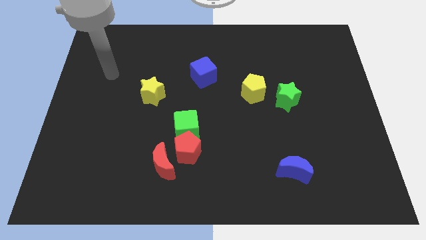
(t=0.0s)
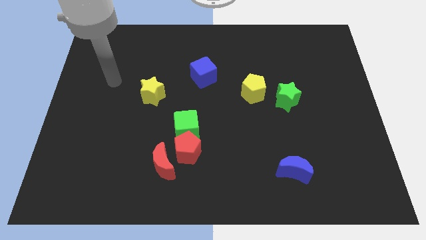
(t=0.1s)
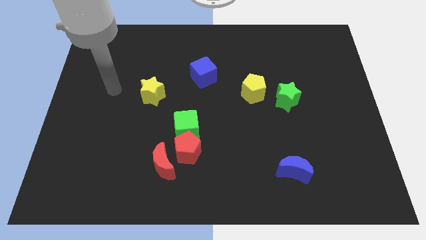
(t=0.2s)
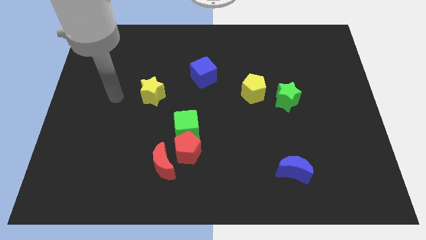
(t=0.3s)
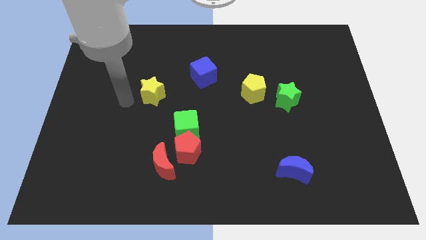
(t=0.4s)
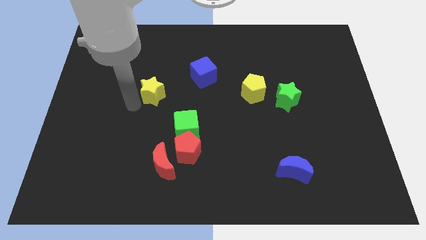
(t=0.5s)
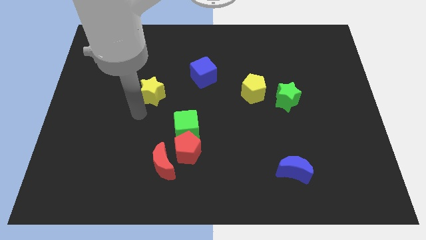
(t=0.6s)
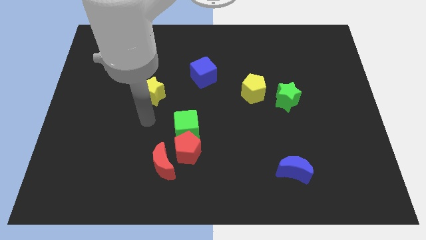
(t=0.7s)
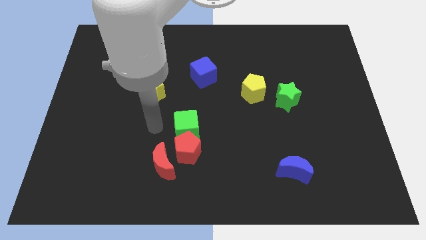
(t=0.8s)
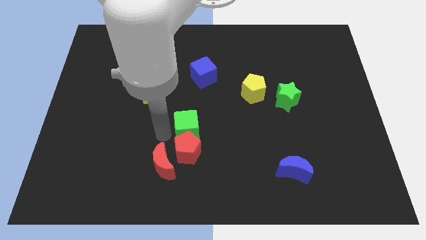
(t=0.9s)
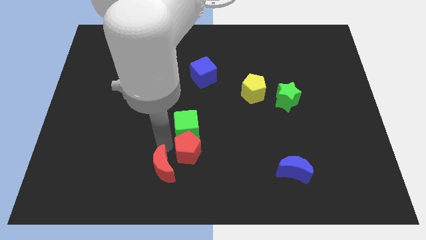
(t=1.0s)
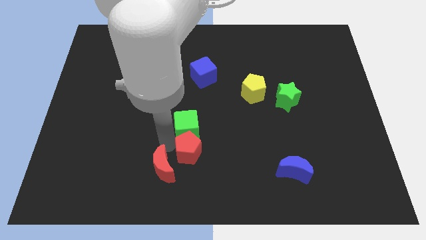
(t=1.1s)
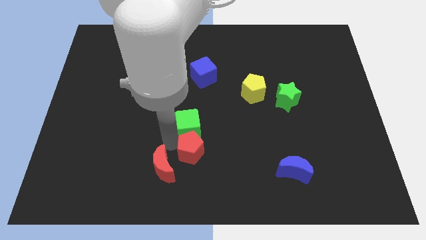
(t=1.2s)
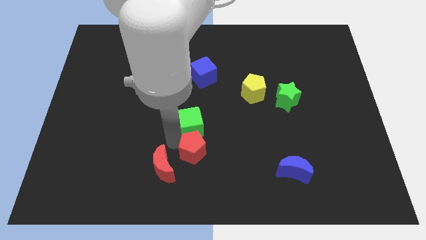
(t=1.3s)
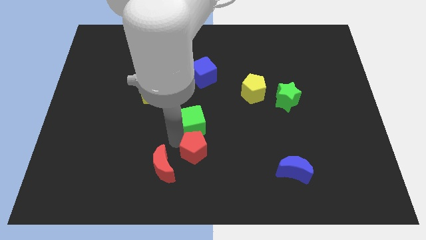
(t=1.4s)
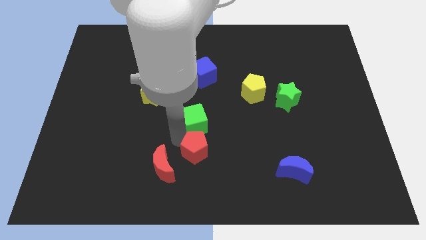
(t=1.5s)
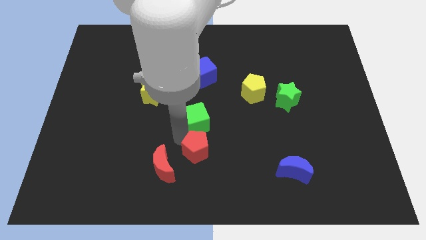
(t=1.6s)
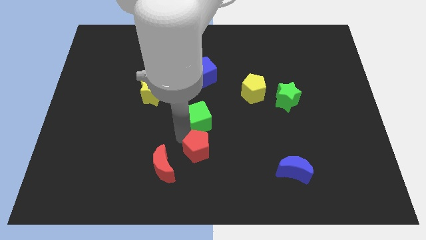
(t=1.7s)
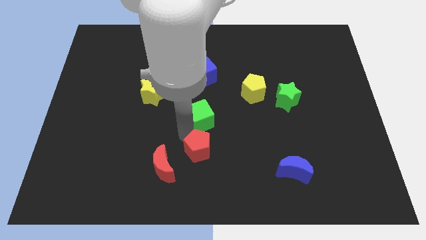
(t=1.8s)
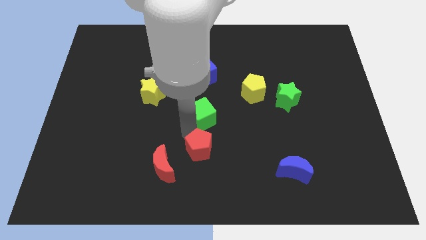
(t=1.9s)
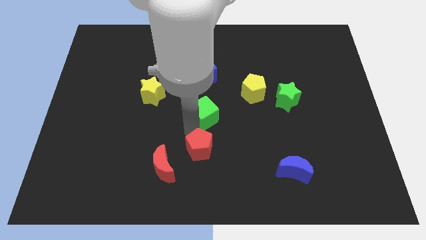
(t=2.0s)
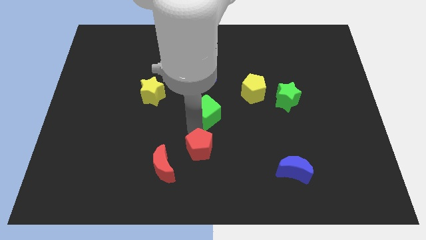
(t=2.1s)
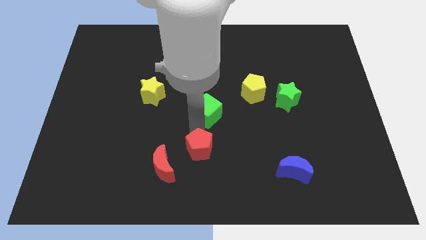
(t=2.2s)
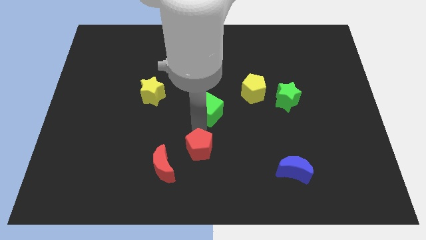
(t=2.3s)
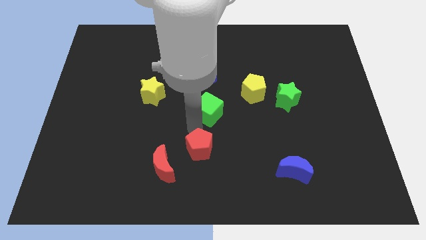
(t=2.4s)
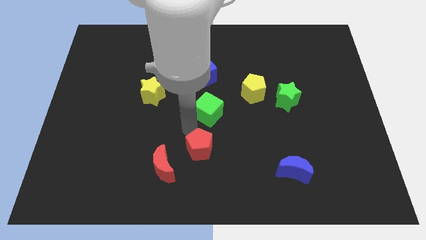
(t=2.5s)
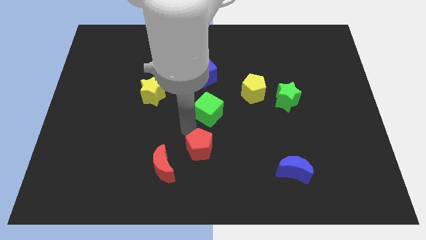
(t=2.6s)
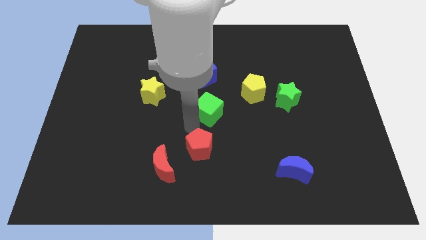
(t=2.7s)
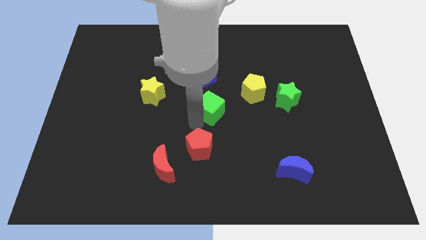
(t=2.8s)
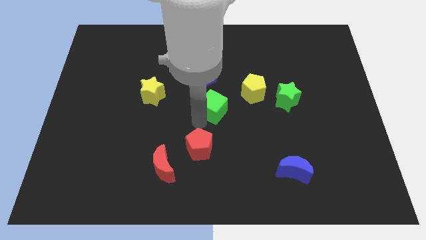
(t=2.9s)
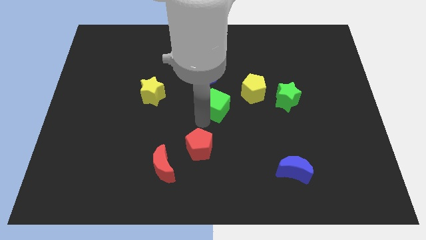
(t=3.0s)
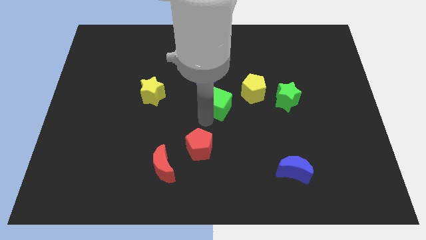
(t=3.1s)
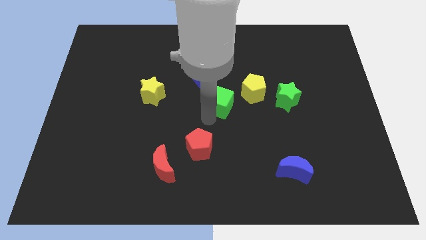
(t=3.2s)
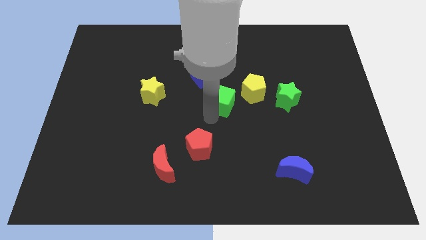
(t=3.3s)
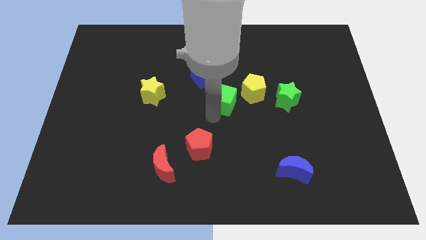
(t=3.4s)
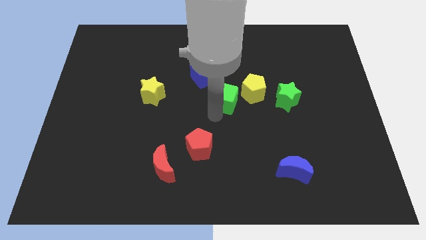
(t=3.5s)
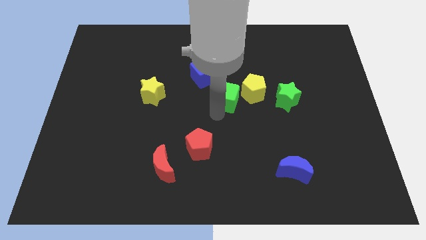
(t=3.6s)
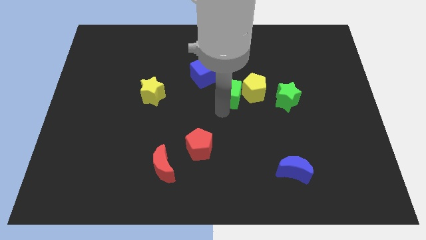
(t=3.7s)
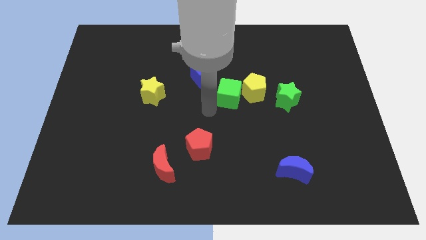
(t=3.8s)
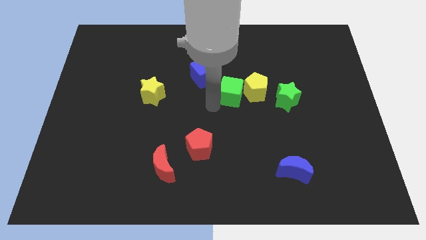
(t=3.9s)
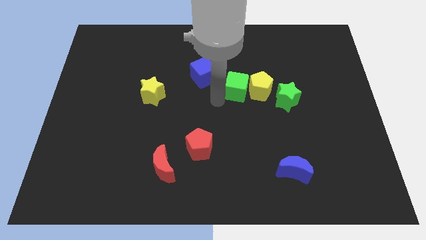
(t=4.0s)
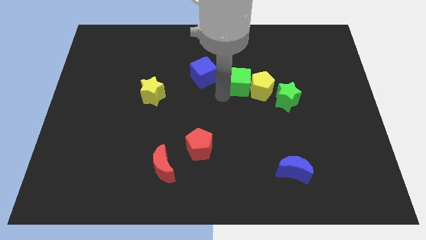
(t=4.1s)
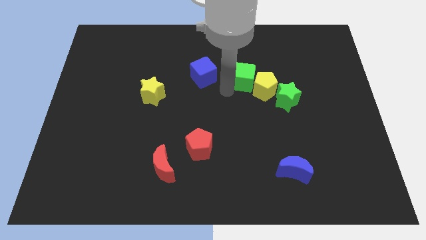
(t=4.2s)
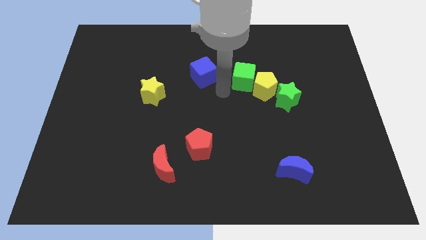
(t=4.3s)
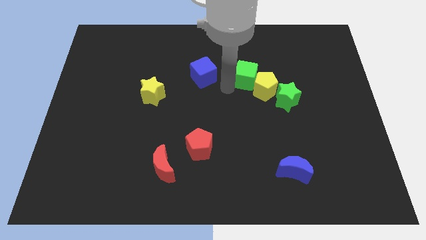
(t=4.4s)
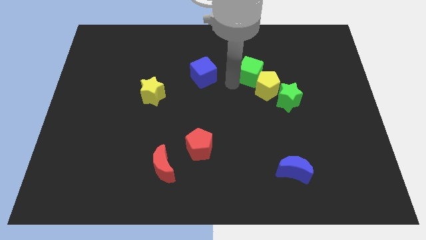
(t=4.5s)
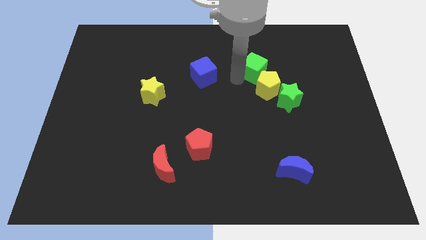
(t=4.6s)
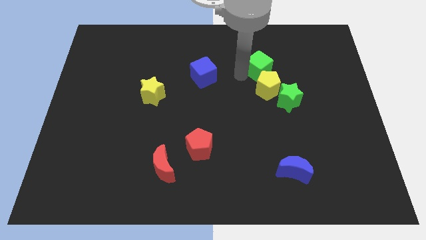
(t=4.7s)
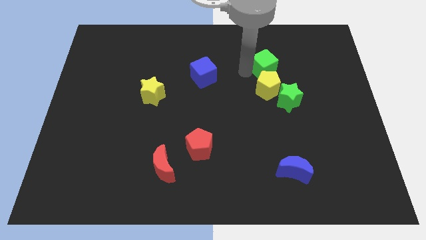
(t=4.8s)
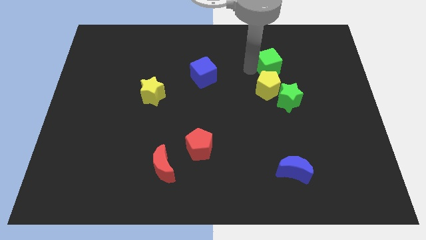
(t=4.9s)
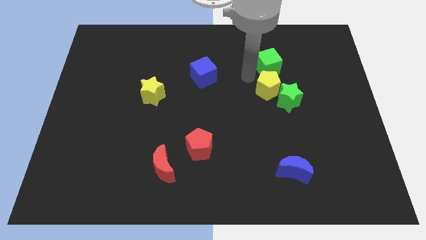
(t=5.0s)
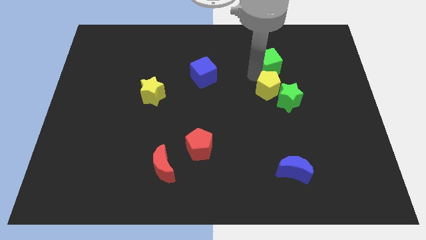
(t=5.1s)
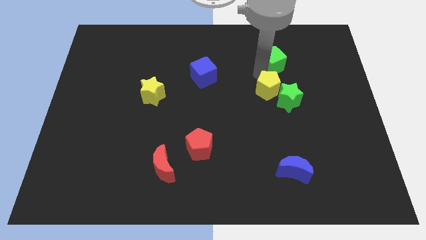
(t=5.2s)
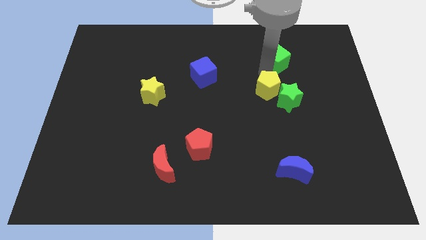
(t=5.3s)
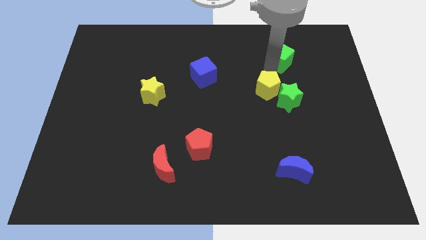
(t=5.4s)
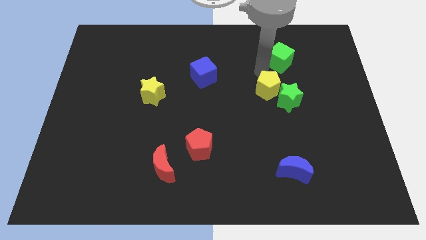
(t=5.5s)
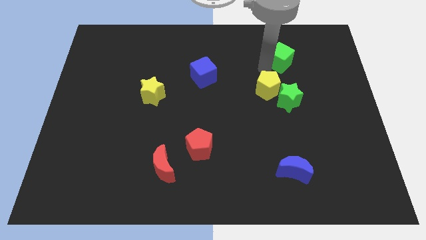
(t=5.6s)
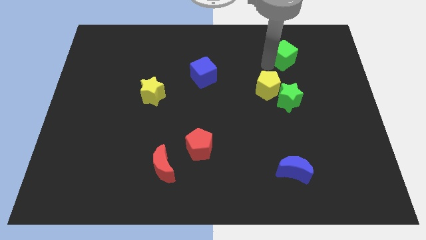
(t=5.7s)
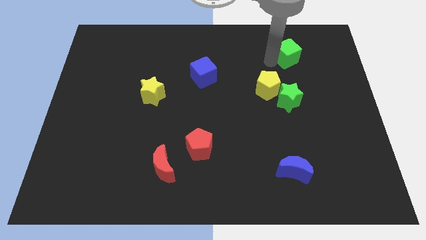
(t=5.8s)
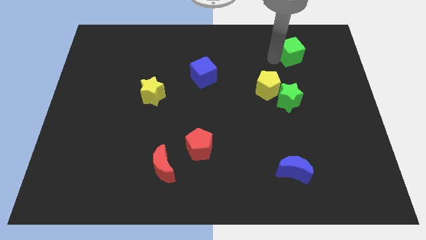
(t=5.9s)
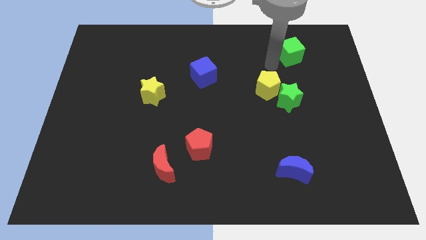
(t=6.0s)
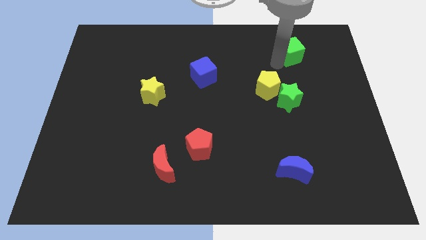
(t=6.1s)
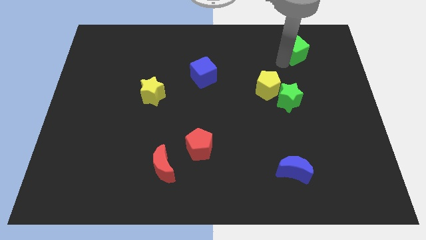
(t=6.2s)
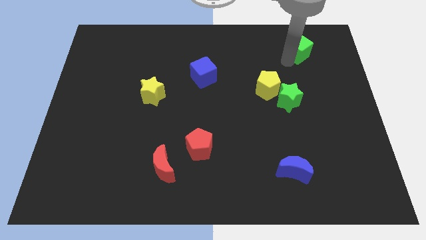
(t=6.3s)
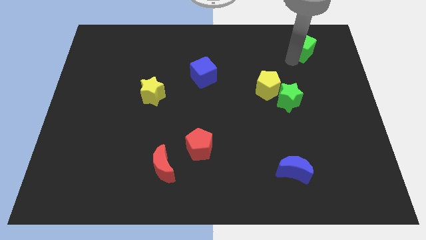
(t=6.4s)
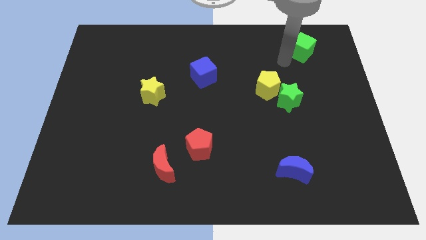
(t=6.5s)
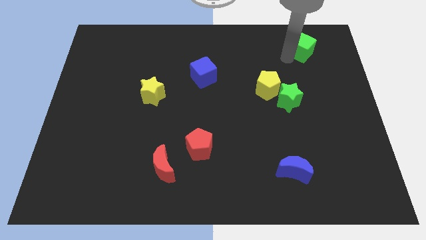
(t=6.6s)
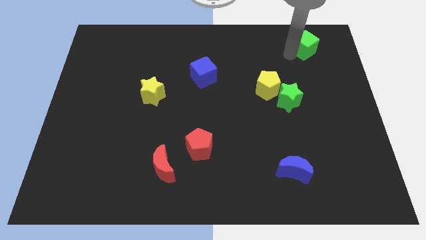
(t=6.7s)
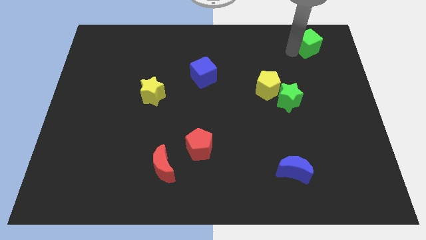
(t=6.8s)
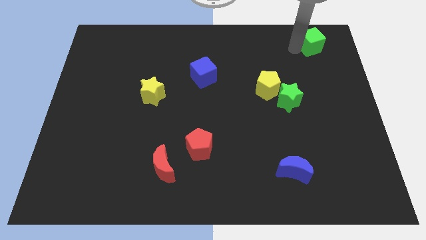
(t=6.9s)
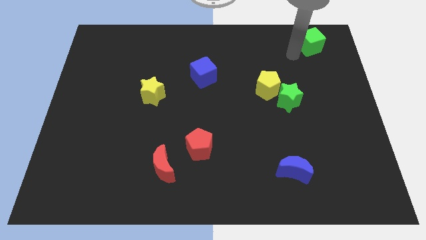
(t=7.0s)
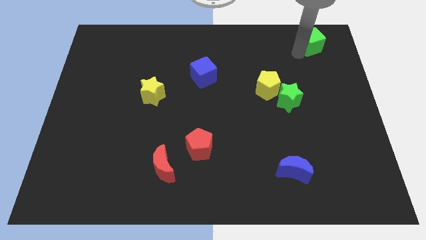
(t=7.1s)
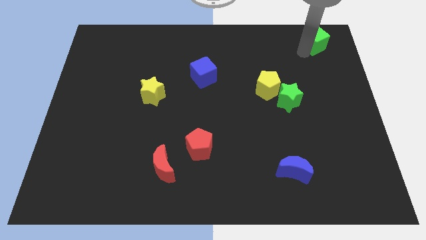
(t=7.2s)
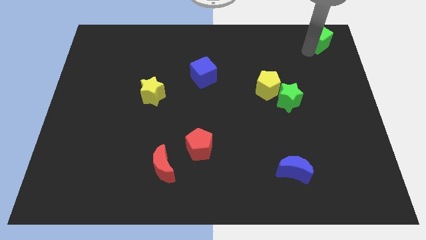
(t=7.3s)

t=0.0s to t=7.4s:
move the green cube to the top right

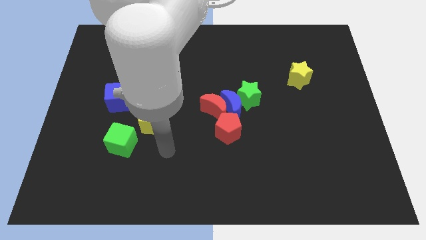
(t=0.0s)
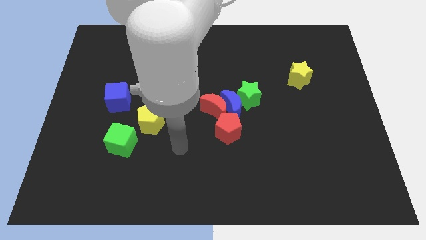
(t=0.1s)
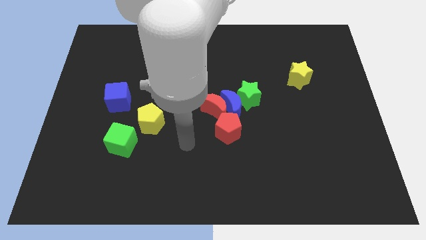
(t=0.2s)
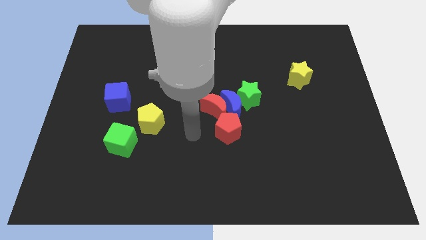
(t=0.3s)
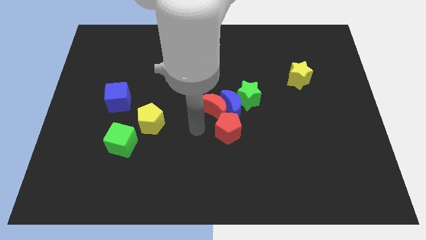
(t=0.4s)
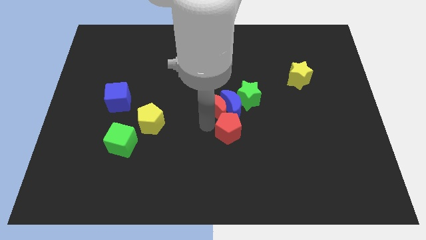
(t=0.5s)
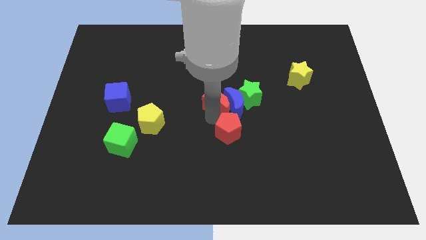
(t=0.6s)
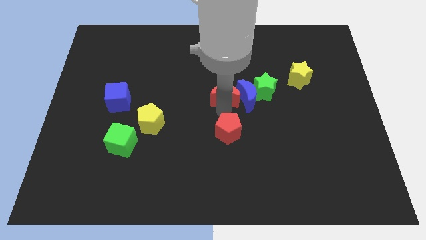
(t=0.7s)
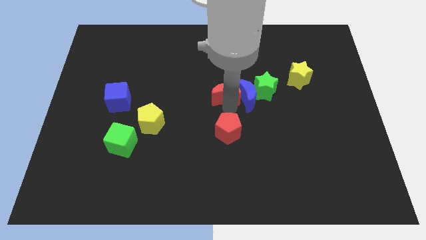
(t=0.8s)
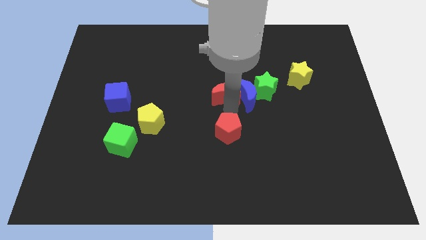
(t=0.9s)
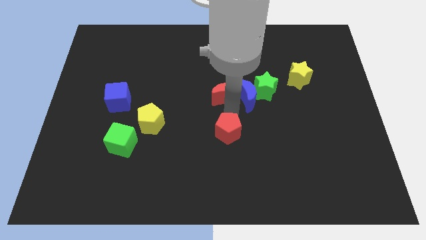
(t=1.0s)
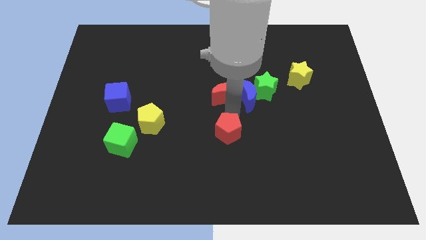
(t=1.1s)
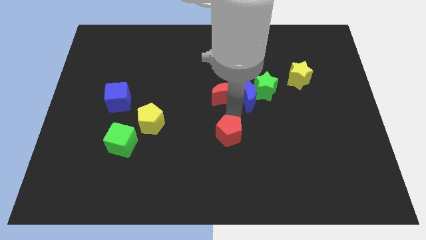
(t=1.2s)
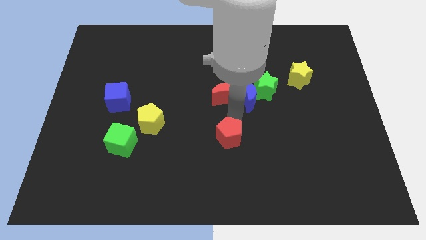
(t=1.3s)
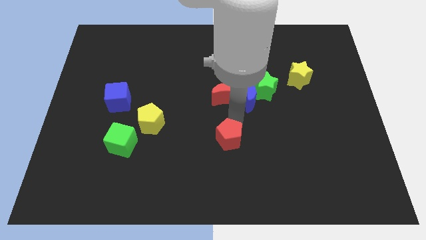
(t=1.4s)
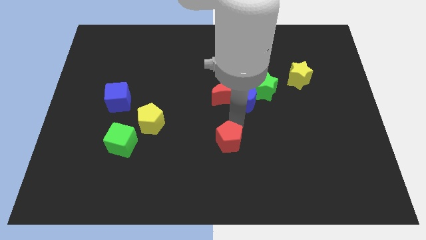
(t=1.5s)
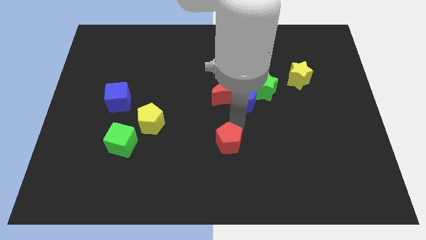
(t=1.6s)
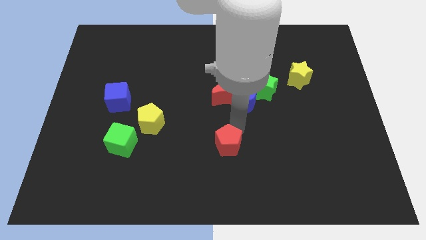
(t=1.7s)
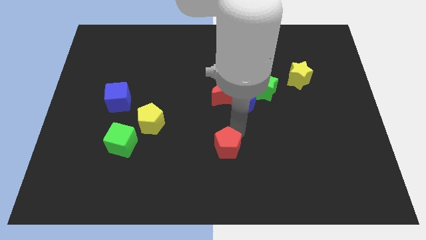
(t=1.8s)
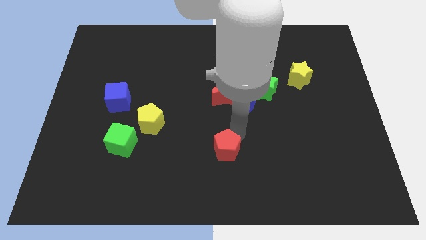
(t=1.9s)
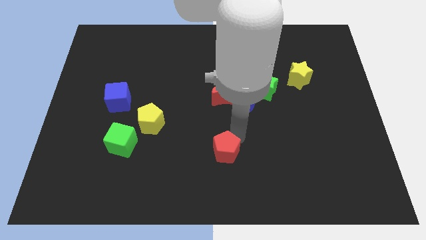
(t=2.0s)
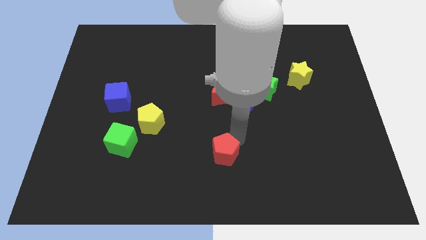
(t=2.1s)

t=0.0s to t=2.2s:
put the red pentagon to the bottom
